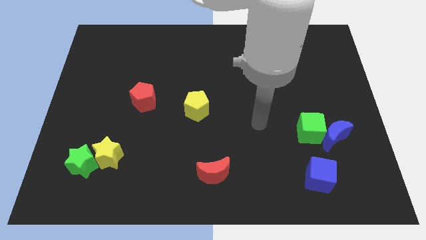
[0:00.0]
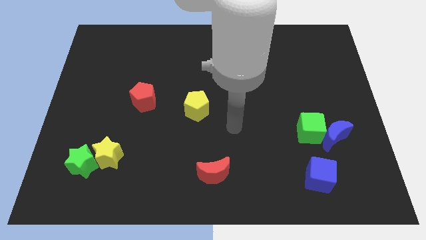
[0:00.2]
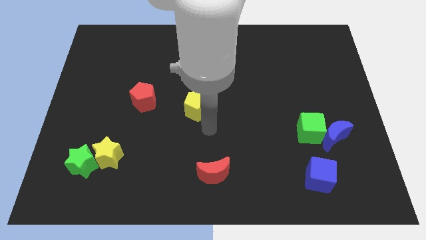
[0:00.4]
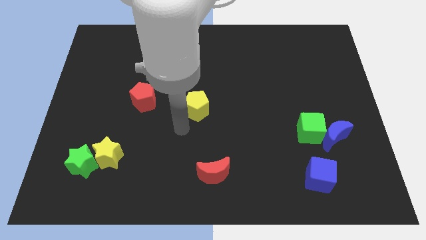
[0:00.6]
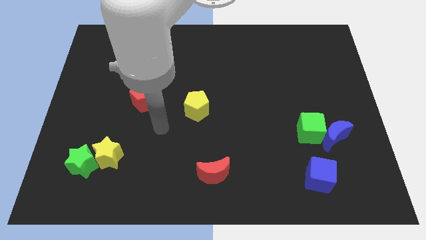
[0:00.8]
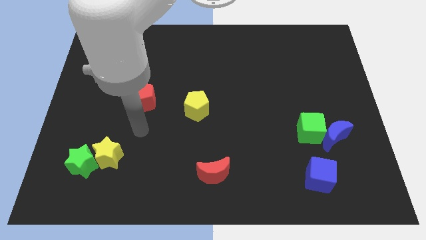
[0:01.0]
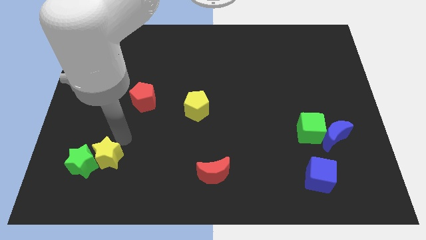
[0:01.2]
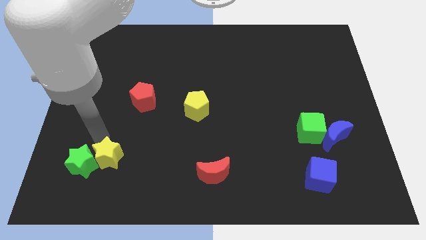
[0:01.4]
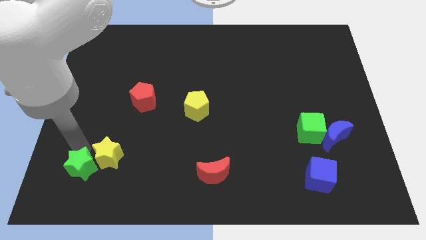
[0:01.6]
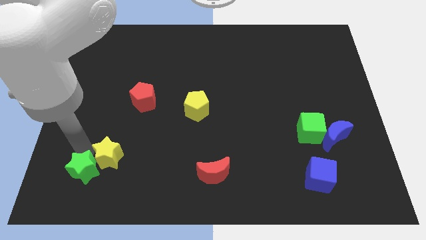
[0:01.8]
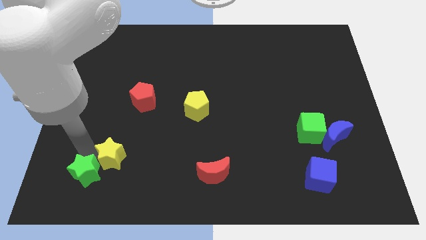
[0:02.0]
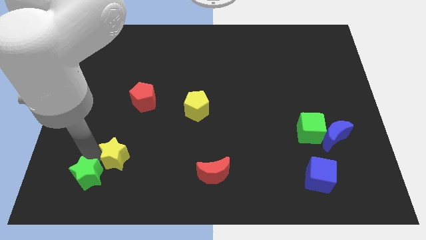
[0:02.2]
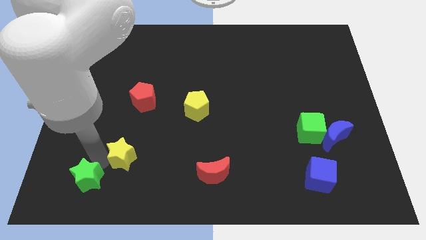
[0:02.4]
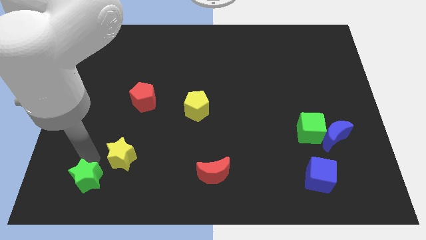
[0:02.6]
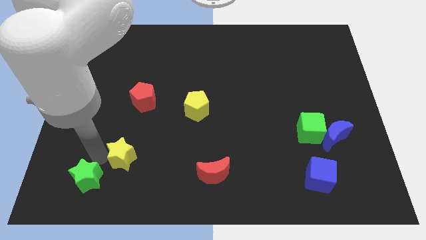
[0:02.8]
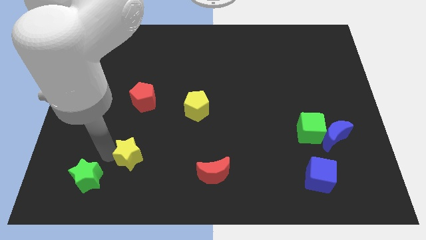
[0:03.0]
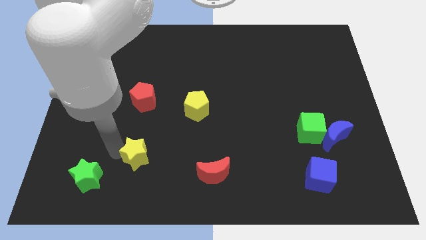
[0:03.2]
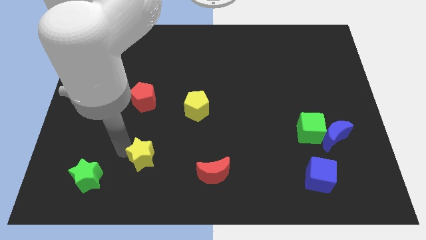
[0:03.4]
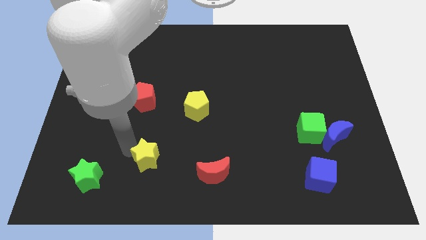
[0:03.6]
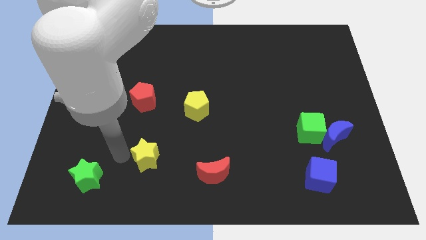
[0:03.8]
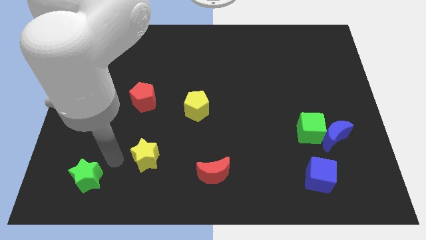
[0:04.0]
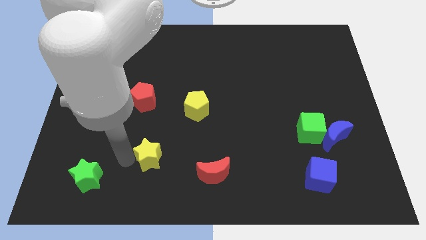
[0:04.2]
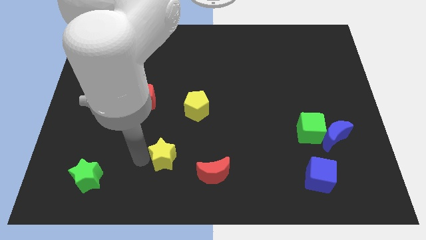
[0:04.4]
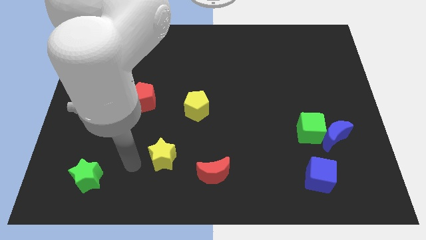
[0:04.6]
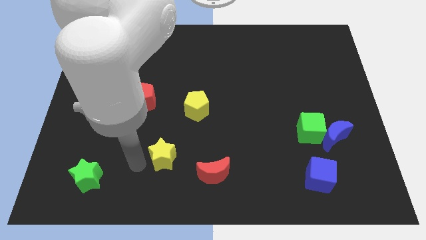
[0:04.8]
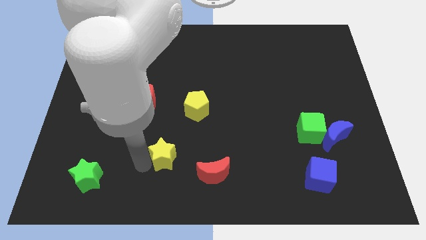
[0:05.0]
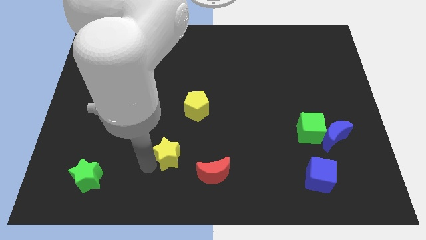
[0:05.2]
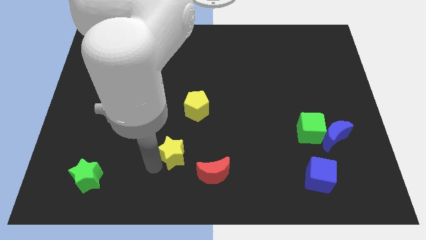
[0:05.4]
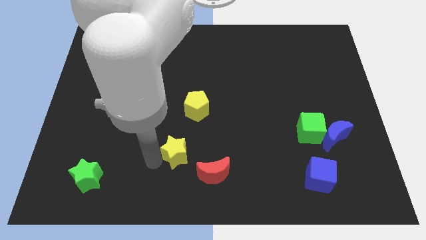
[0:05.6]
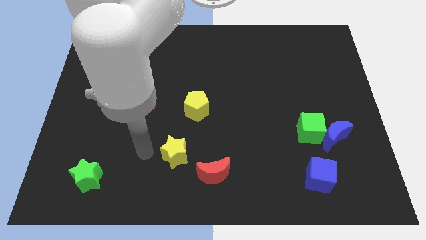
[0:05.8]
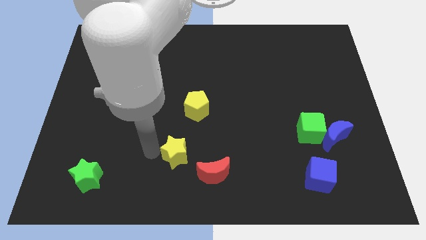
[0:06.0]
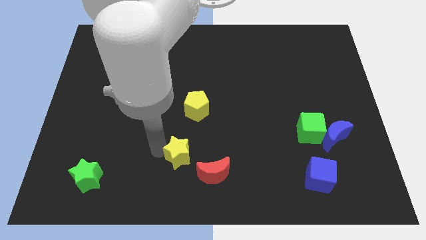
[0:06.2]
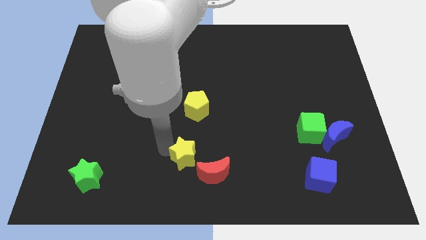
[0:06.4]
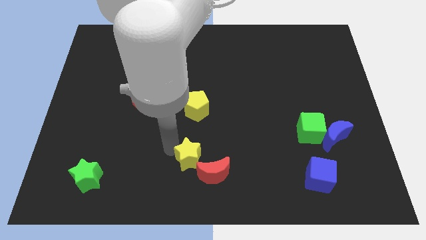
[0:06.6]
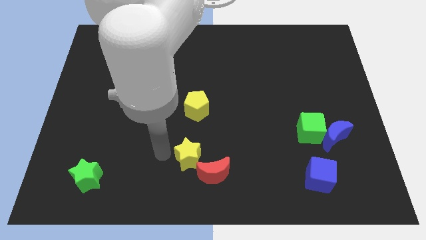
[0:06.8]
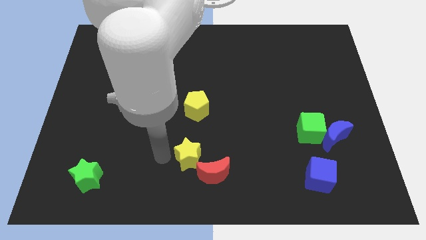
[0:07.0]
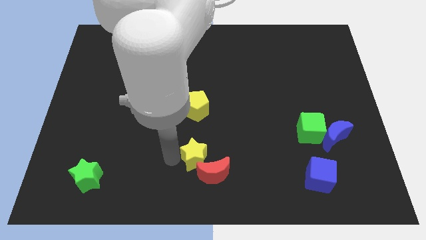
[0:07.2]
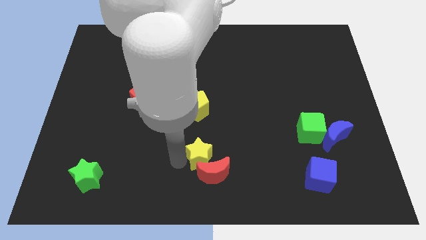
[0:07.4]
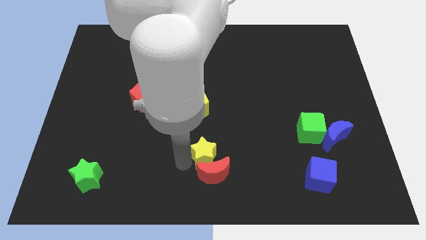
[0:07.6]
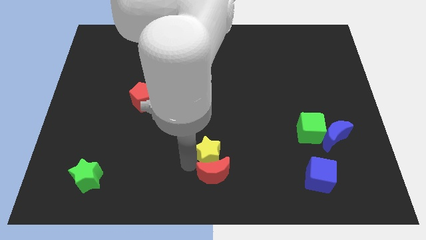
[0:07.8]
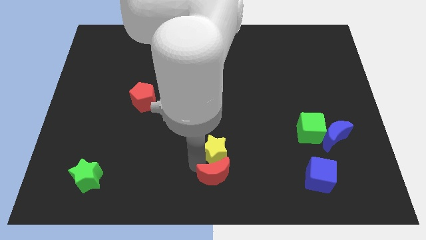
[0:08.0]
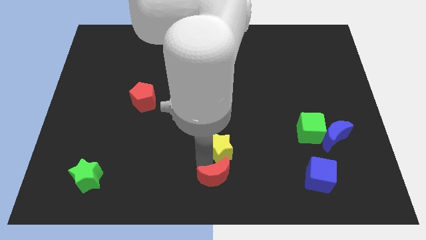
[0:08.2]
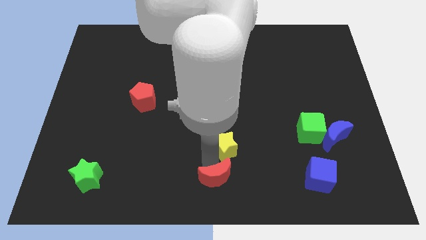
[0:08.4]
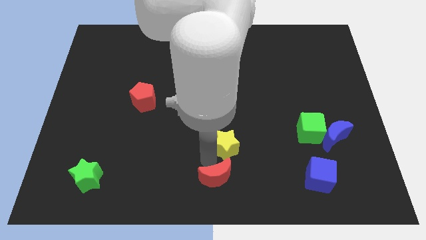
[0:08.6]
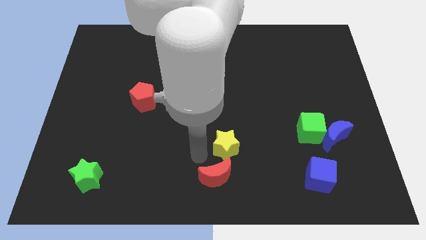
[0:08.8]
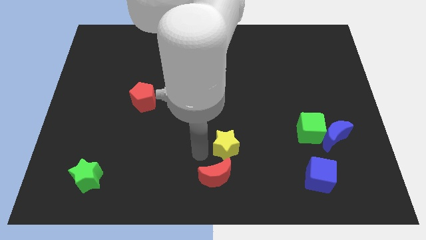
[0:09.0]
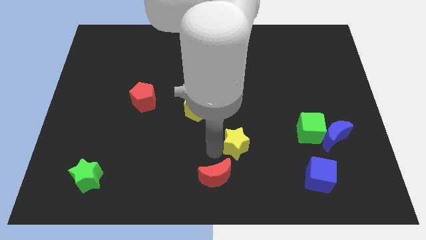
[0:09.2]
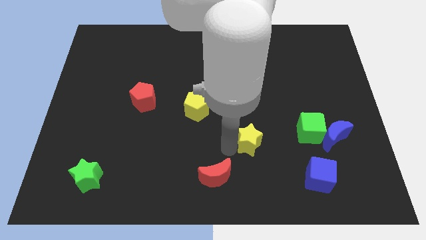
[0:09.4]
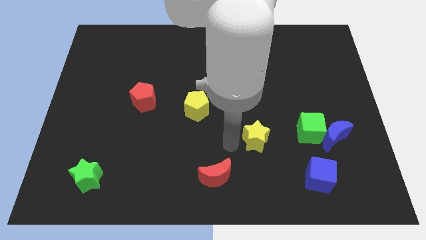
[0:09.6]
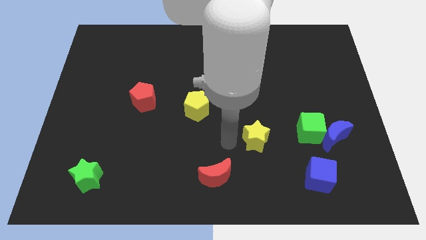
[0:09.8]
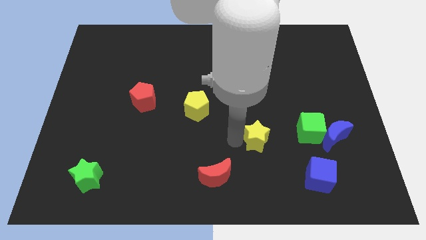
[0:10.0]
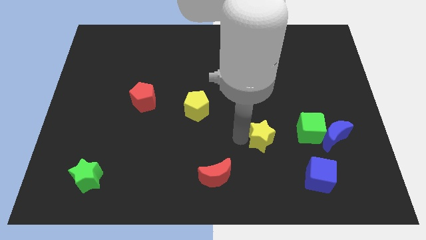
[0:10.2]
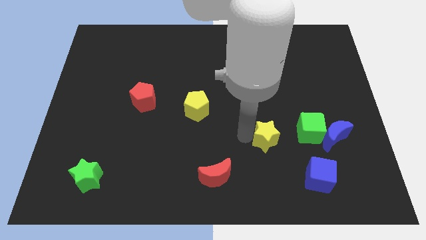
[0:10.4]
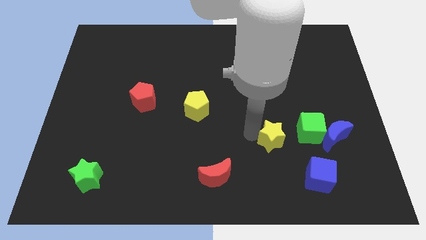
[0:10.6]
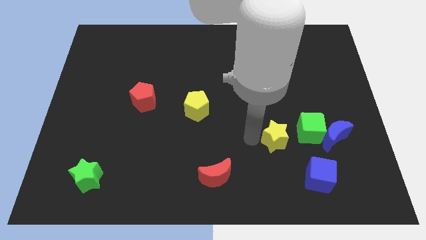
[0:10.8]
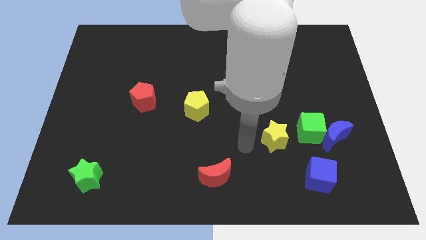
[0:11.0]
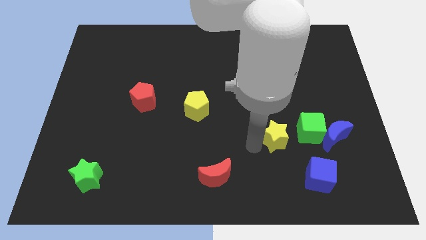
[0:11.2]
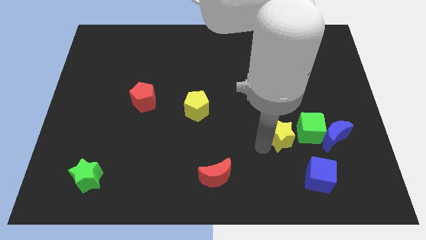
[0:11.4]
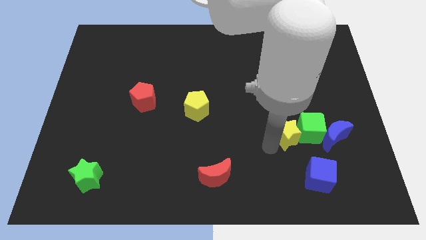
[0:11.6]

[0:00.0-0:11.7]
put the yellow star towards the green cube

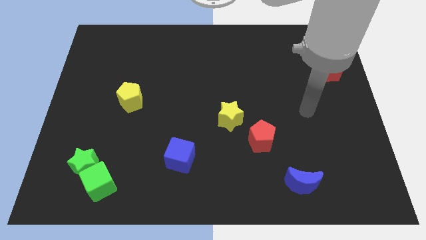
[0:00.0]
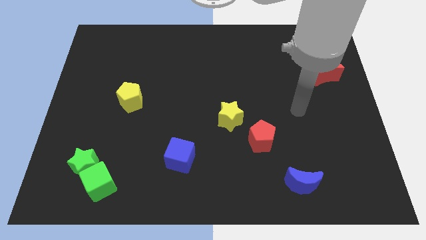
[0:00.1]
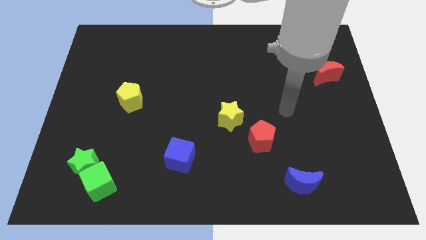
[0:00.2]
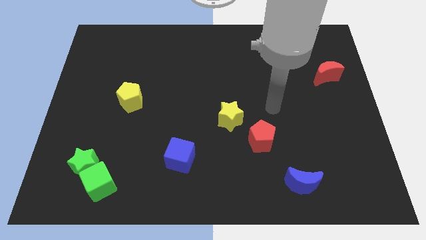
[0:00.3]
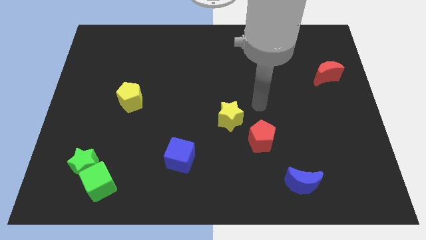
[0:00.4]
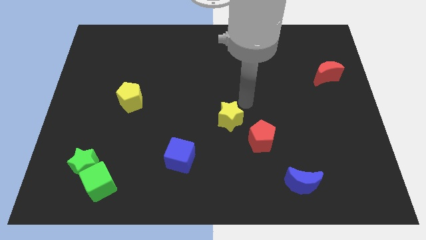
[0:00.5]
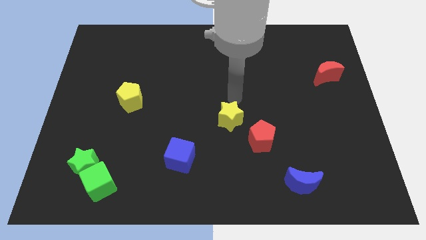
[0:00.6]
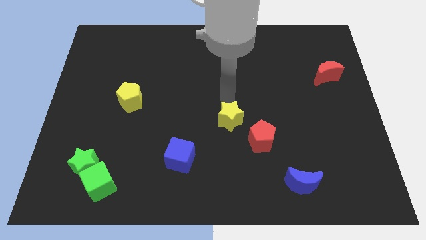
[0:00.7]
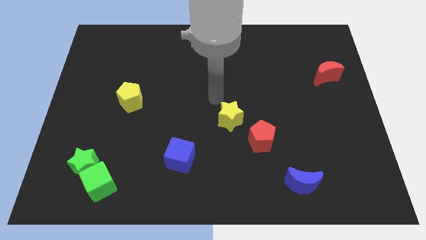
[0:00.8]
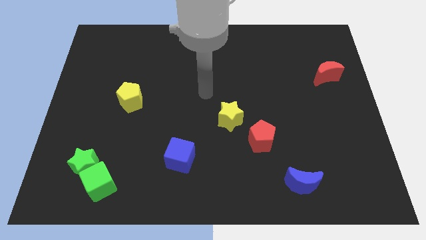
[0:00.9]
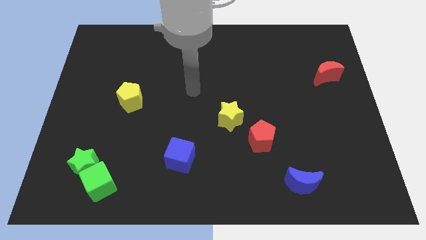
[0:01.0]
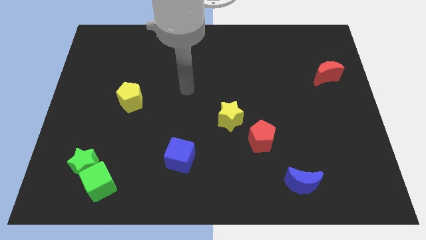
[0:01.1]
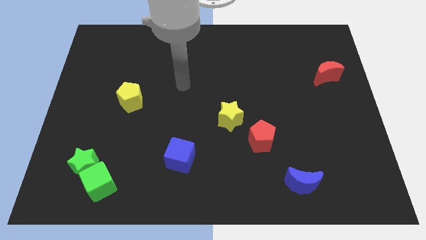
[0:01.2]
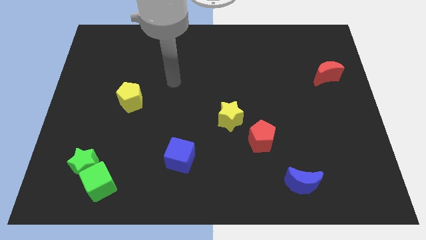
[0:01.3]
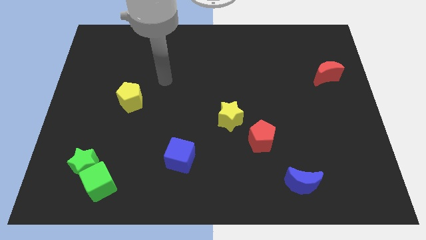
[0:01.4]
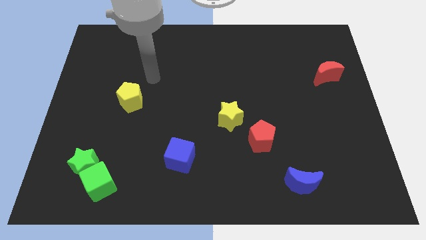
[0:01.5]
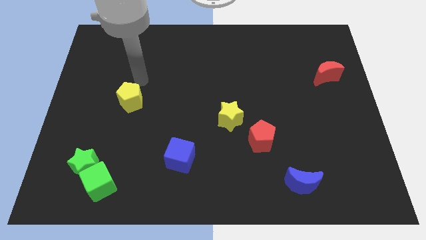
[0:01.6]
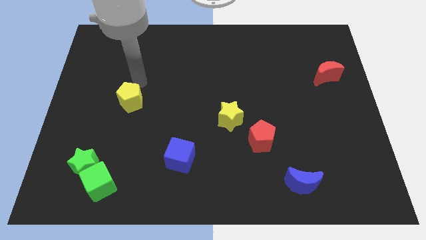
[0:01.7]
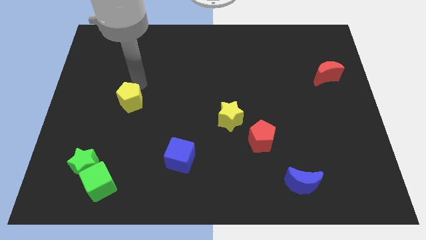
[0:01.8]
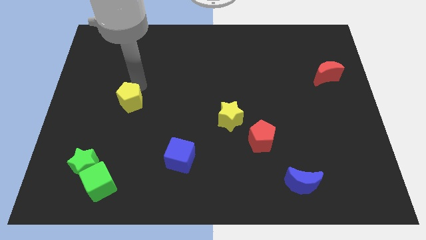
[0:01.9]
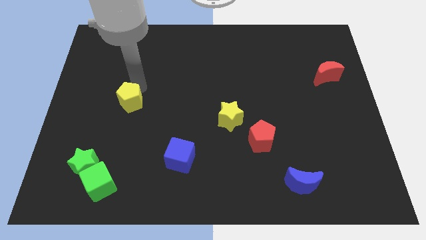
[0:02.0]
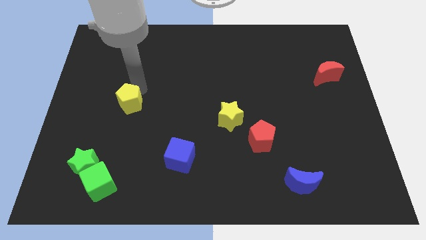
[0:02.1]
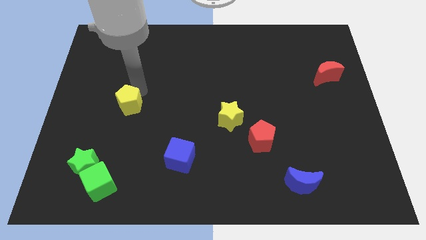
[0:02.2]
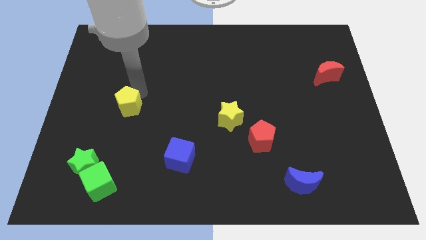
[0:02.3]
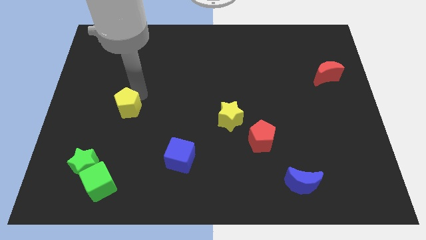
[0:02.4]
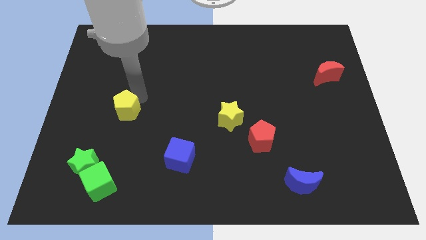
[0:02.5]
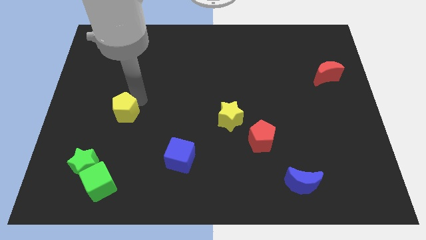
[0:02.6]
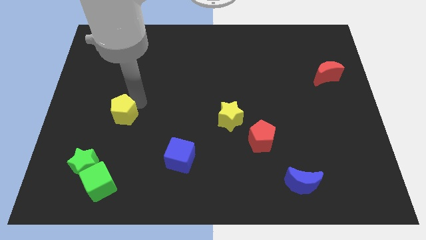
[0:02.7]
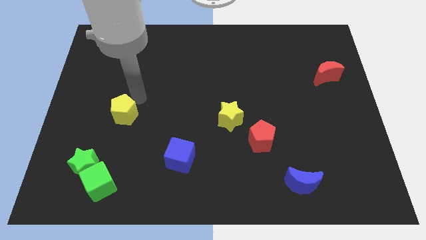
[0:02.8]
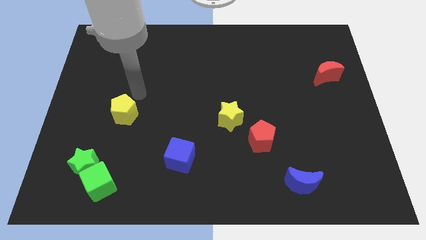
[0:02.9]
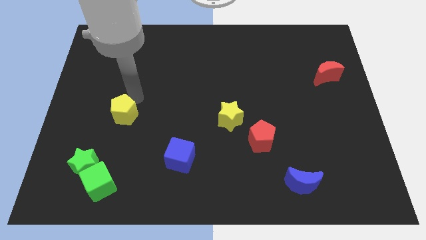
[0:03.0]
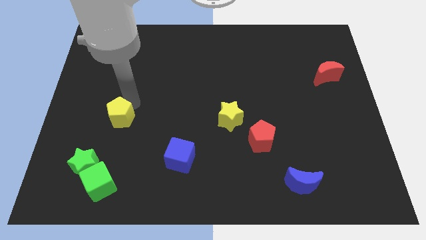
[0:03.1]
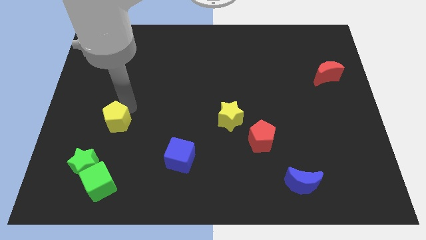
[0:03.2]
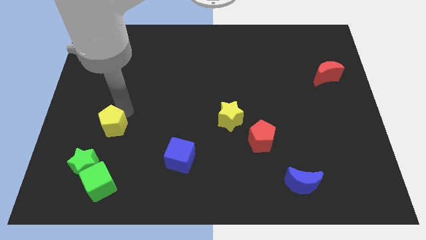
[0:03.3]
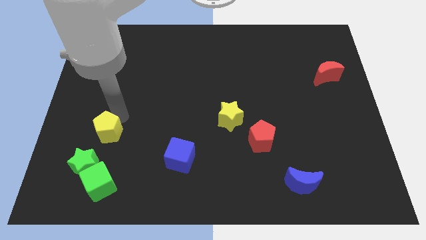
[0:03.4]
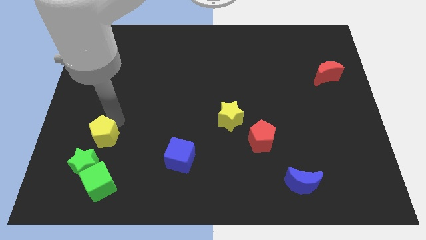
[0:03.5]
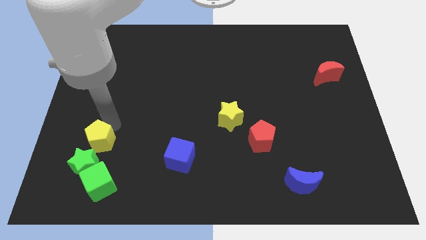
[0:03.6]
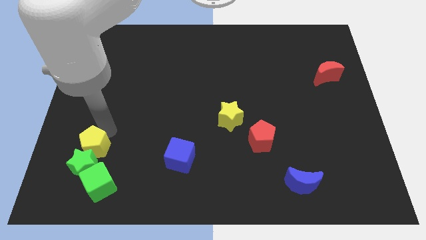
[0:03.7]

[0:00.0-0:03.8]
put the yellow pentagon next to the green star
